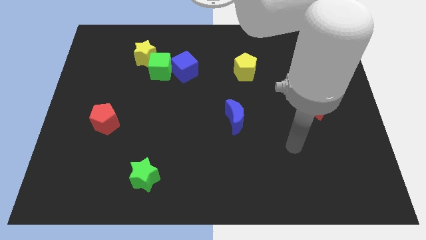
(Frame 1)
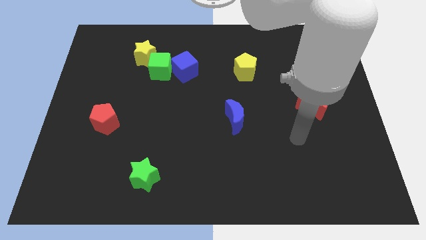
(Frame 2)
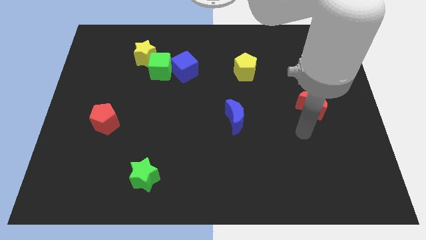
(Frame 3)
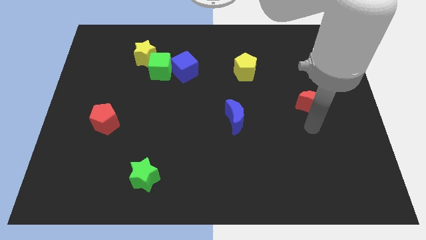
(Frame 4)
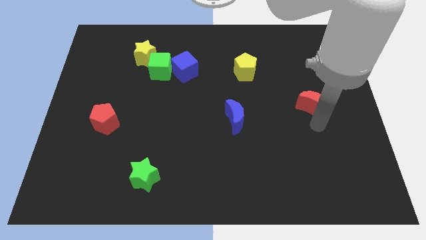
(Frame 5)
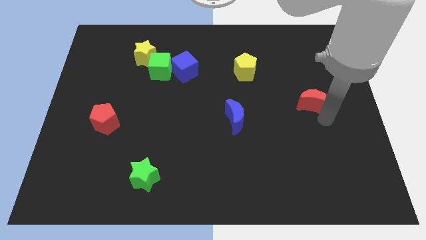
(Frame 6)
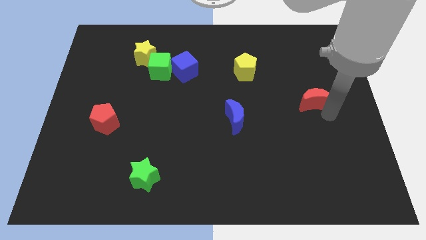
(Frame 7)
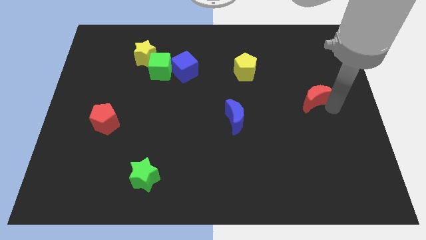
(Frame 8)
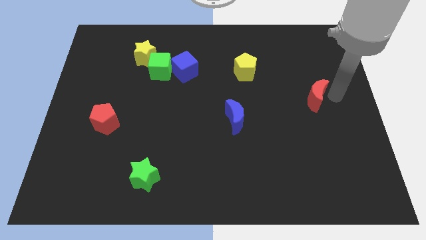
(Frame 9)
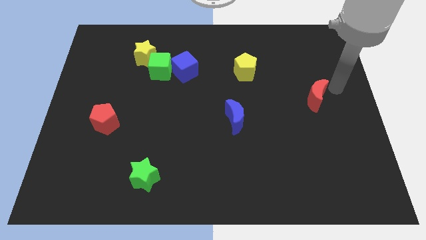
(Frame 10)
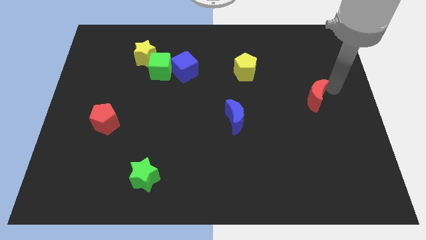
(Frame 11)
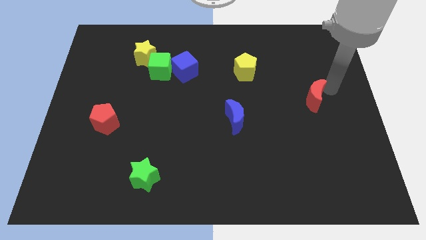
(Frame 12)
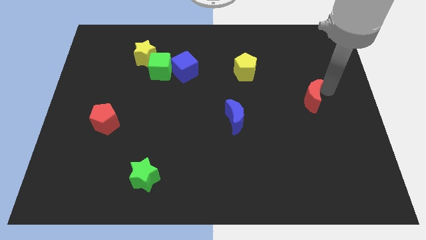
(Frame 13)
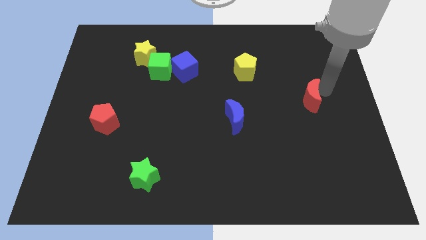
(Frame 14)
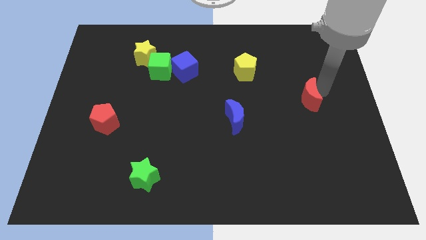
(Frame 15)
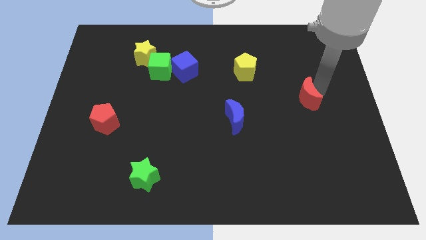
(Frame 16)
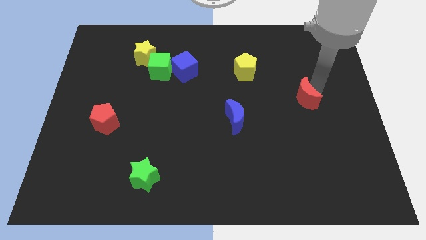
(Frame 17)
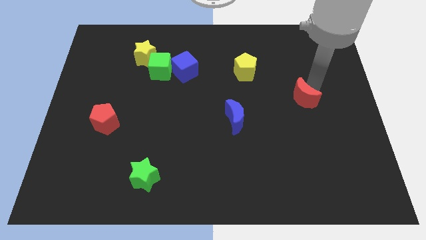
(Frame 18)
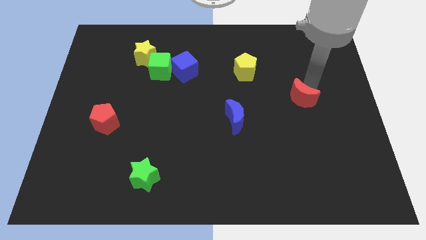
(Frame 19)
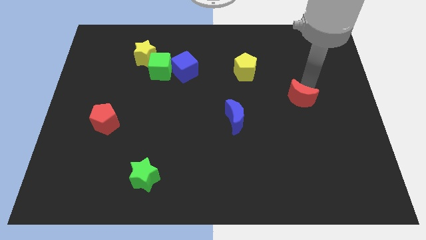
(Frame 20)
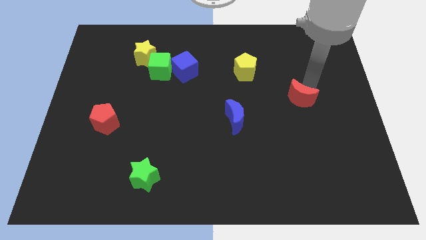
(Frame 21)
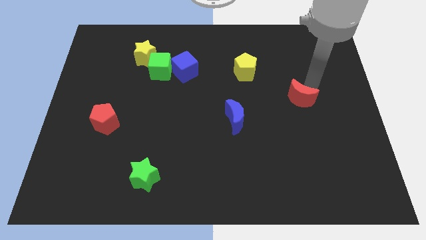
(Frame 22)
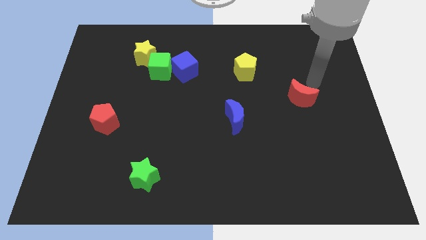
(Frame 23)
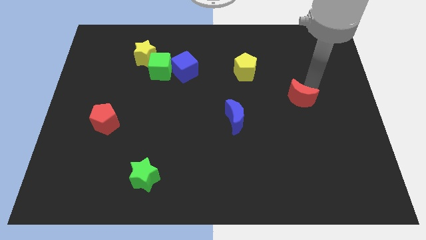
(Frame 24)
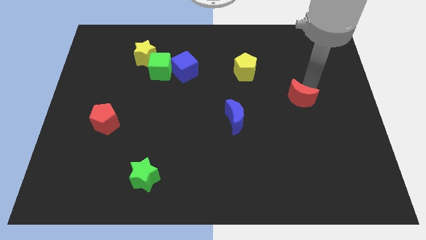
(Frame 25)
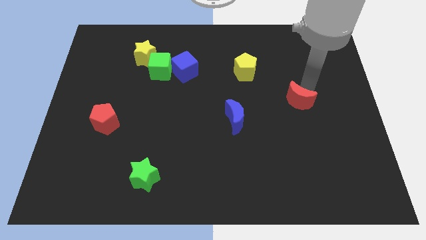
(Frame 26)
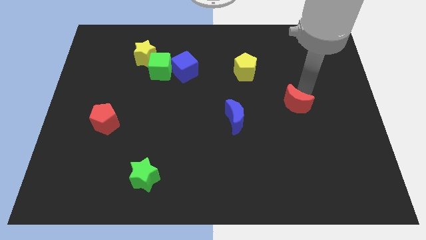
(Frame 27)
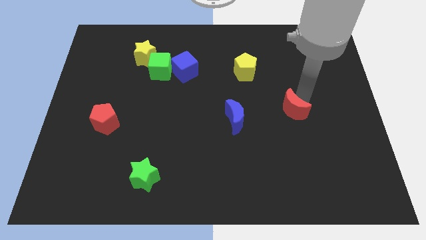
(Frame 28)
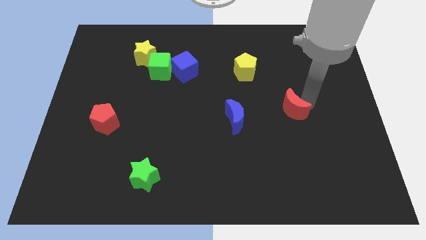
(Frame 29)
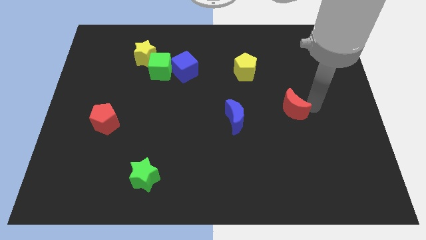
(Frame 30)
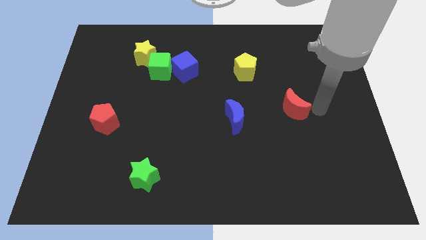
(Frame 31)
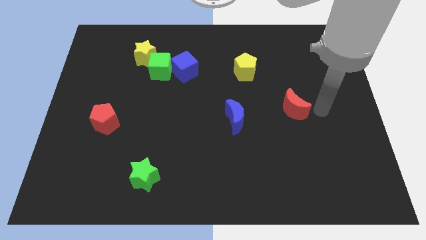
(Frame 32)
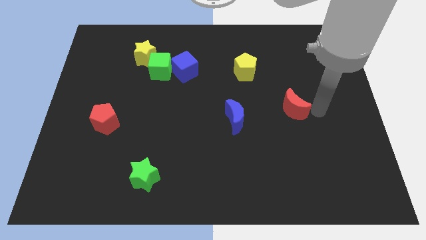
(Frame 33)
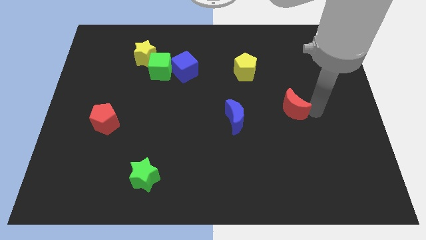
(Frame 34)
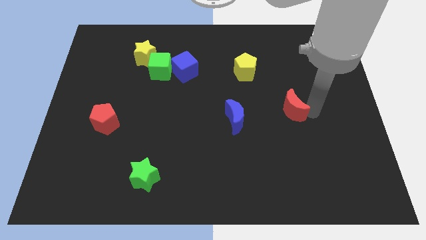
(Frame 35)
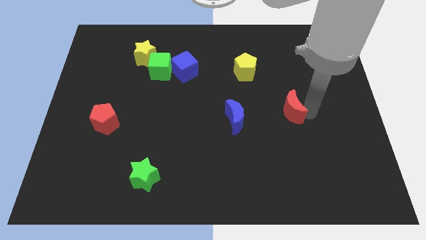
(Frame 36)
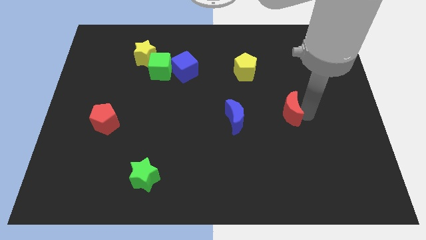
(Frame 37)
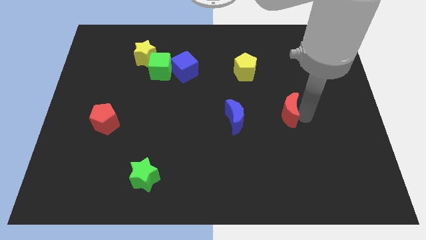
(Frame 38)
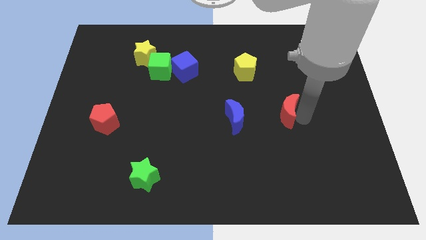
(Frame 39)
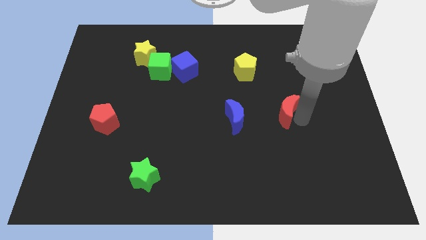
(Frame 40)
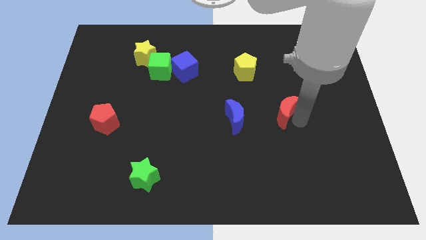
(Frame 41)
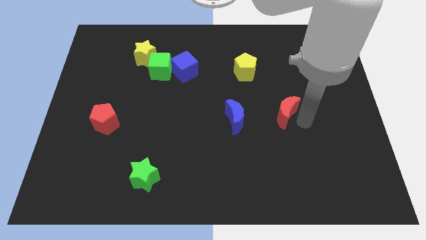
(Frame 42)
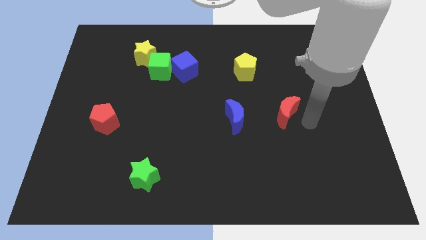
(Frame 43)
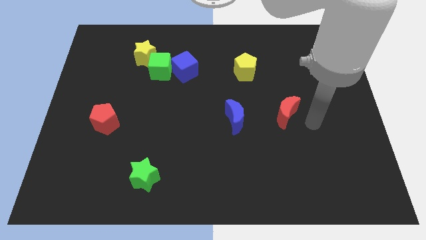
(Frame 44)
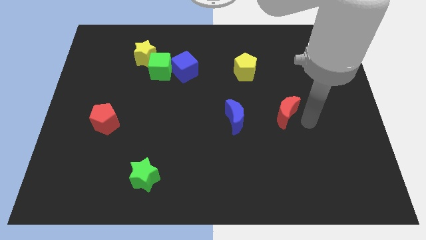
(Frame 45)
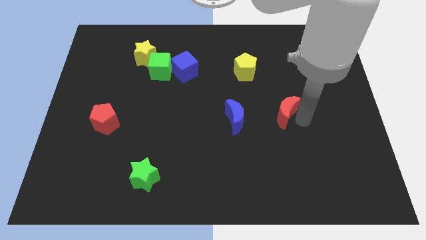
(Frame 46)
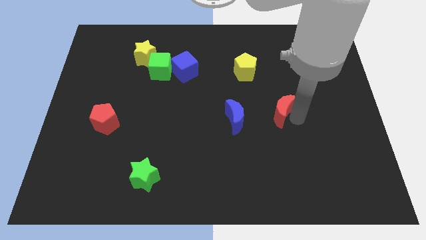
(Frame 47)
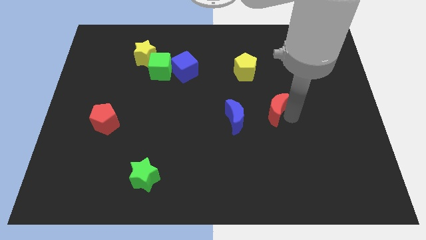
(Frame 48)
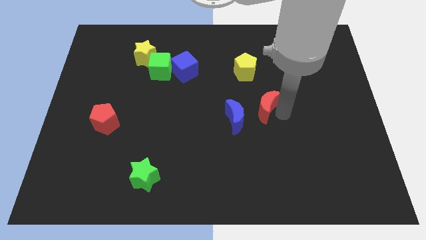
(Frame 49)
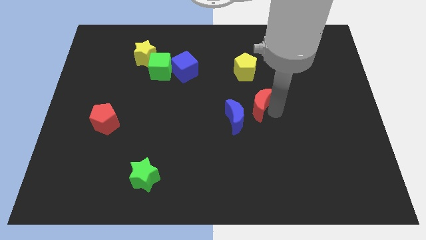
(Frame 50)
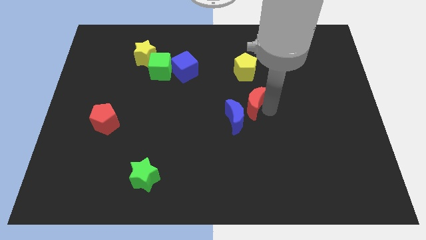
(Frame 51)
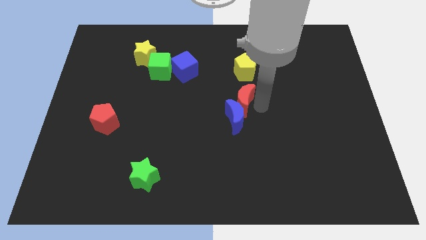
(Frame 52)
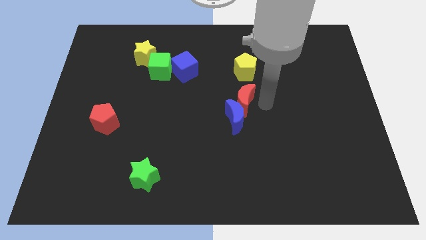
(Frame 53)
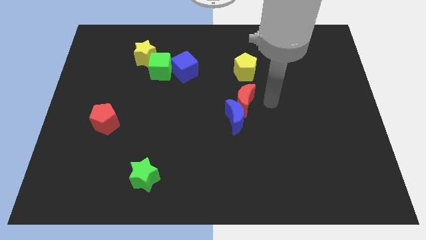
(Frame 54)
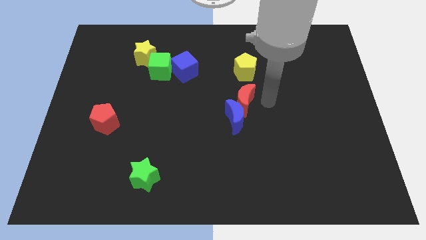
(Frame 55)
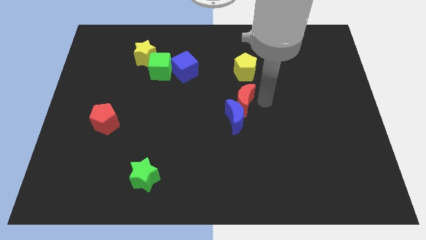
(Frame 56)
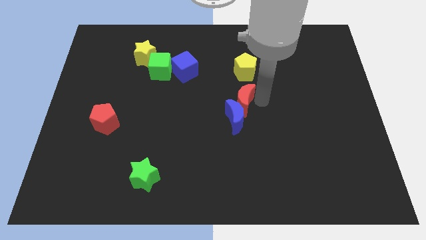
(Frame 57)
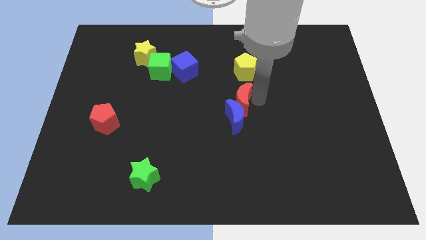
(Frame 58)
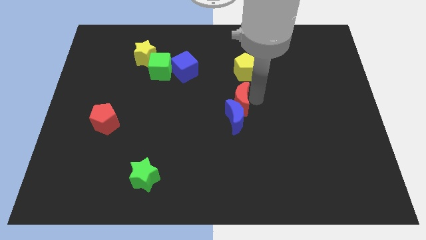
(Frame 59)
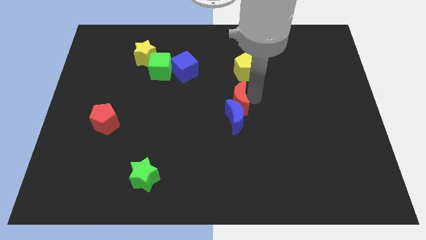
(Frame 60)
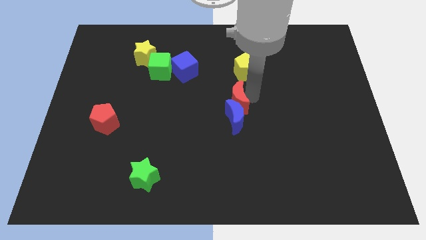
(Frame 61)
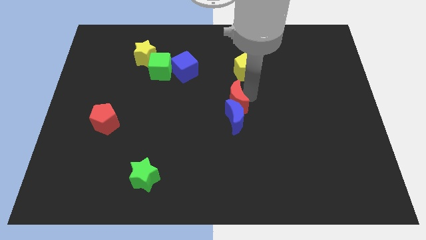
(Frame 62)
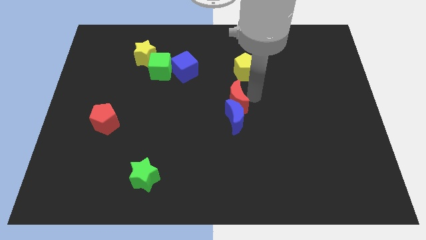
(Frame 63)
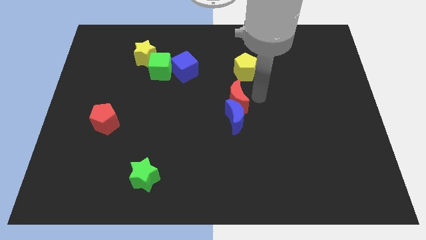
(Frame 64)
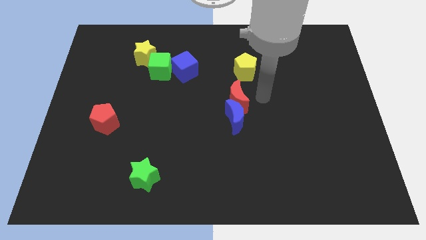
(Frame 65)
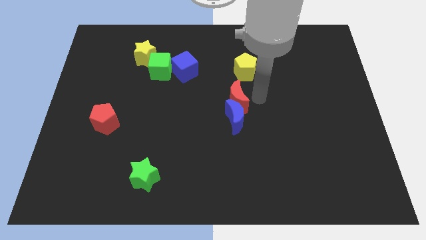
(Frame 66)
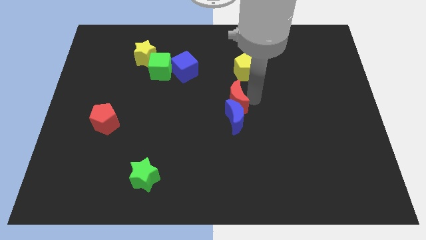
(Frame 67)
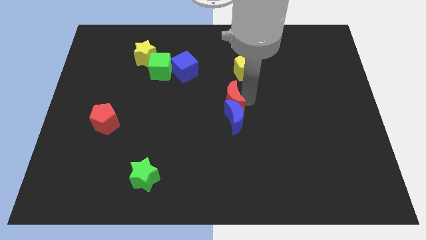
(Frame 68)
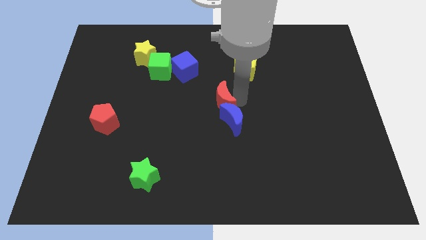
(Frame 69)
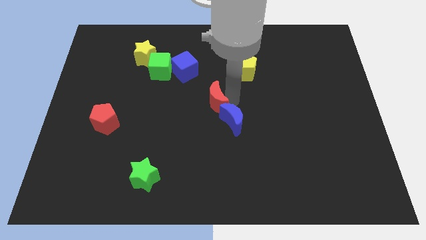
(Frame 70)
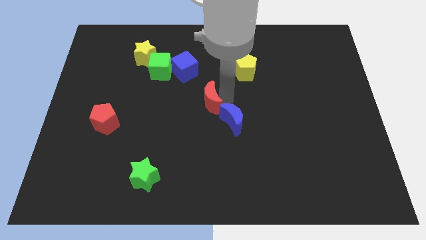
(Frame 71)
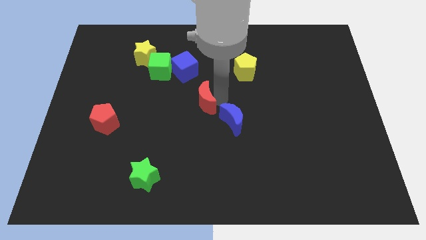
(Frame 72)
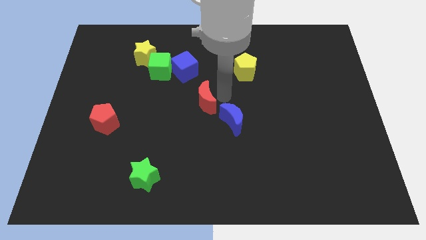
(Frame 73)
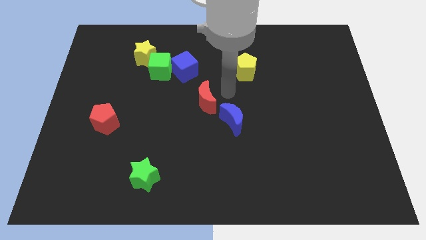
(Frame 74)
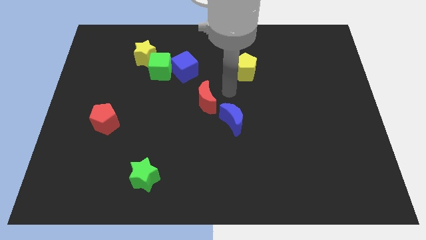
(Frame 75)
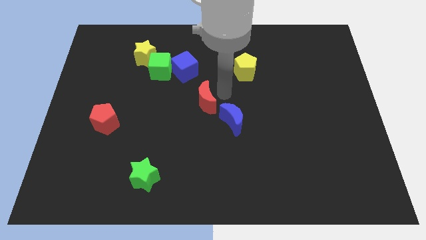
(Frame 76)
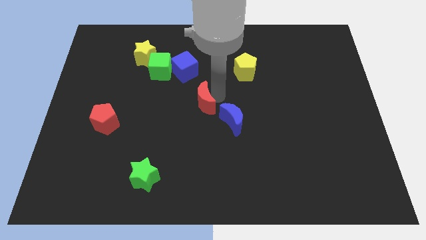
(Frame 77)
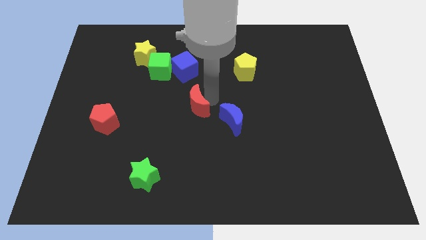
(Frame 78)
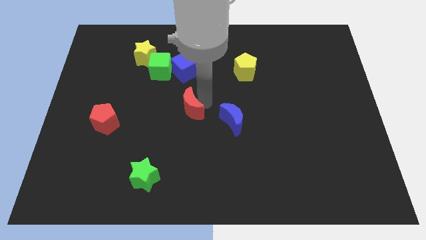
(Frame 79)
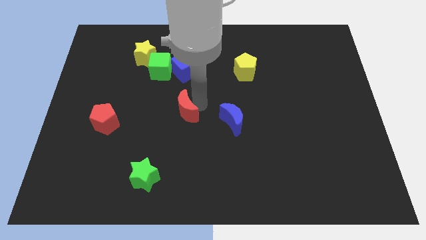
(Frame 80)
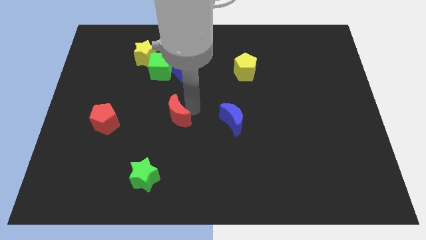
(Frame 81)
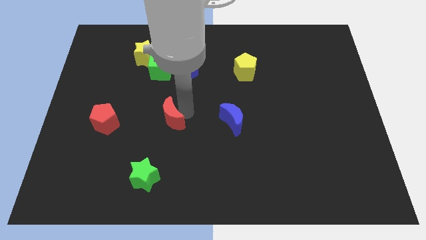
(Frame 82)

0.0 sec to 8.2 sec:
move the red moon just right of the red pentagon
